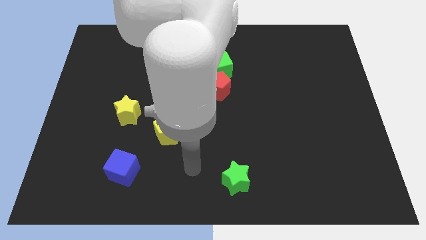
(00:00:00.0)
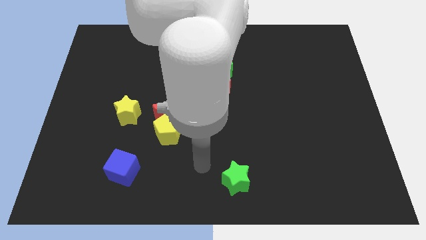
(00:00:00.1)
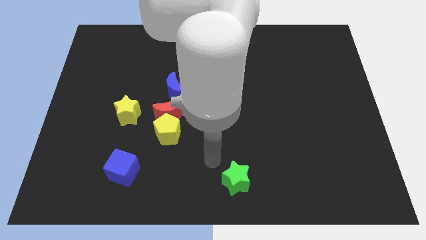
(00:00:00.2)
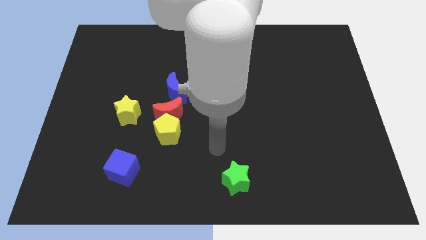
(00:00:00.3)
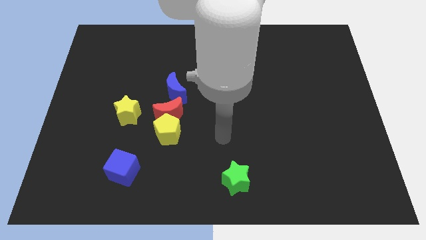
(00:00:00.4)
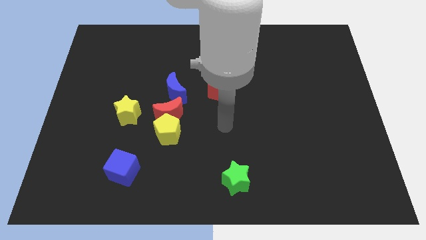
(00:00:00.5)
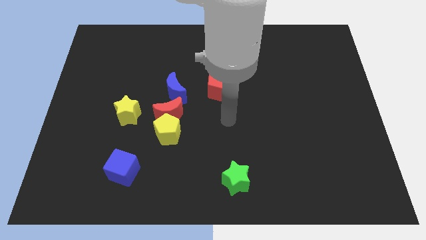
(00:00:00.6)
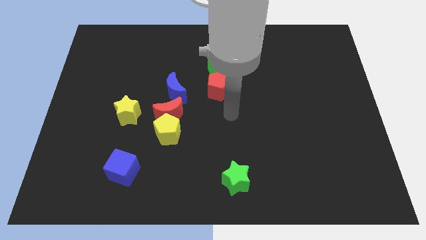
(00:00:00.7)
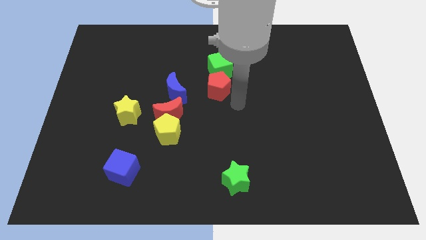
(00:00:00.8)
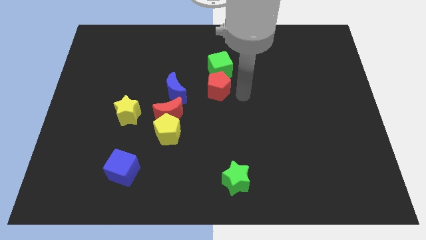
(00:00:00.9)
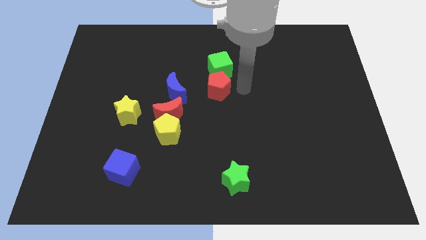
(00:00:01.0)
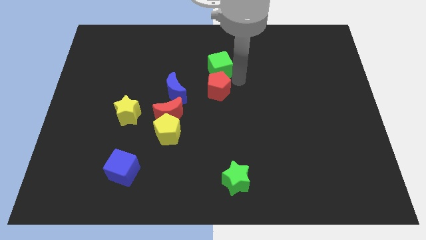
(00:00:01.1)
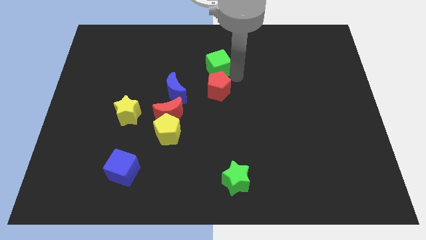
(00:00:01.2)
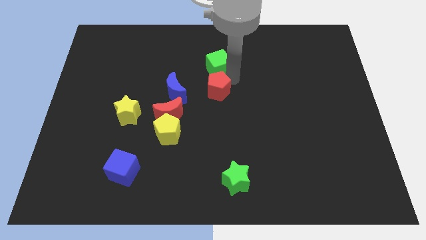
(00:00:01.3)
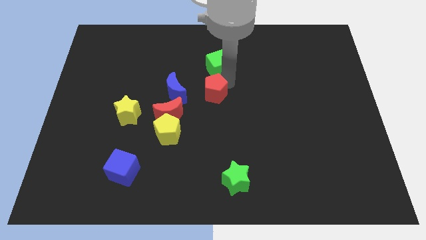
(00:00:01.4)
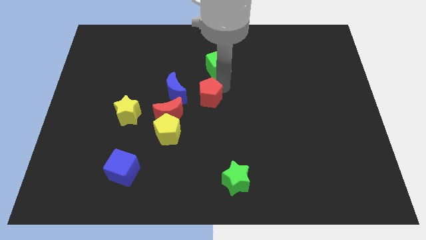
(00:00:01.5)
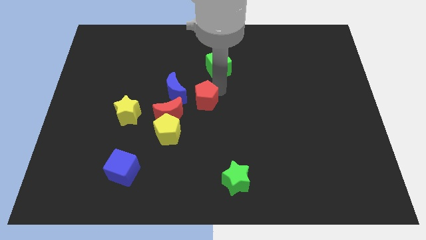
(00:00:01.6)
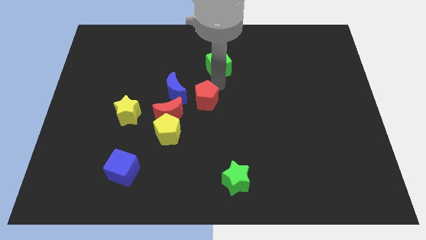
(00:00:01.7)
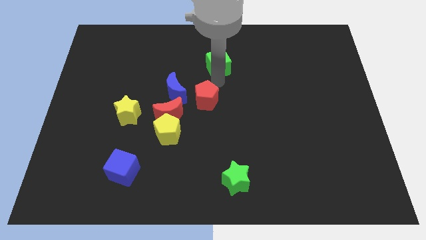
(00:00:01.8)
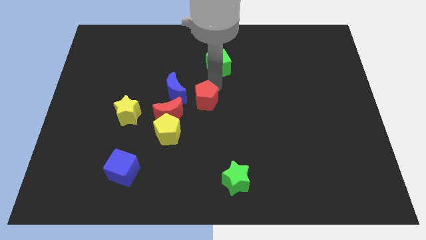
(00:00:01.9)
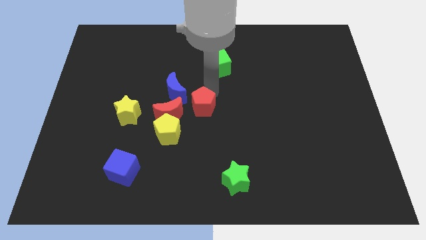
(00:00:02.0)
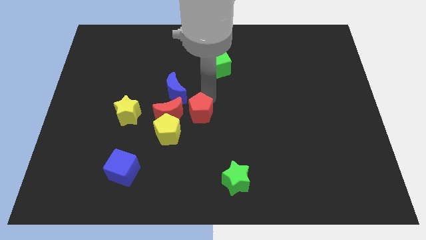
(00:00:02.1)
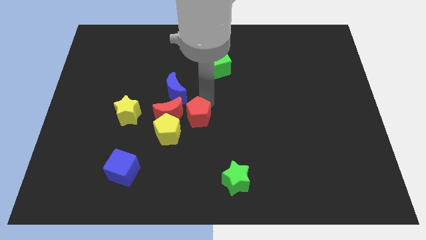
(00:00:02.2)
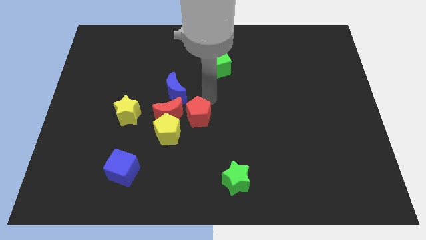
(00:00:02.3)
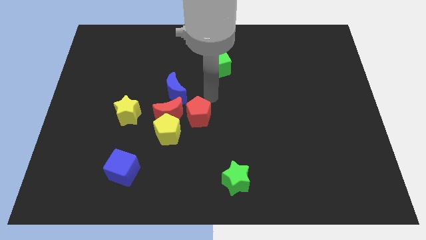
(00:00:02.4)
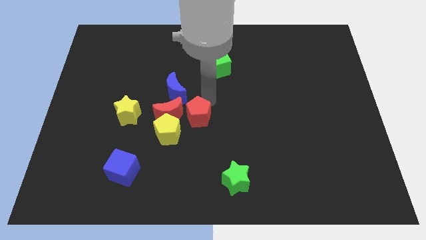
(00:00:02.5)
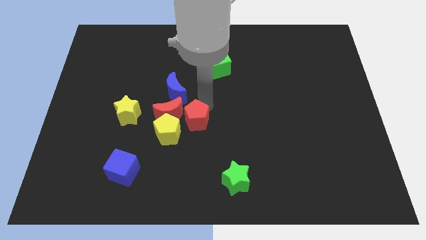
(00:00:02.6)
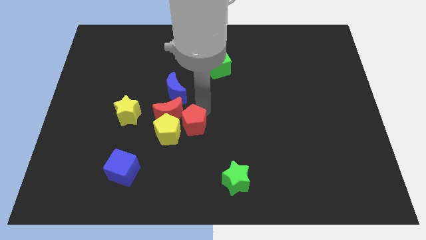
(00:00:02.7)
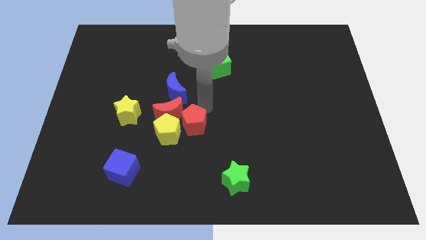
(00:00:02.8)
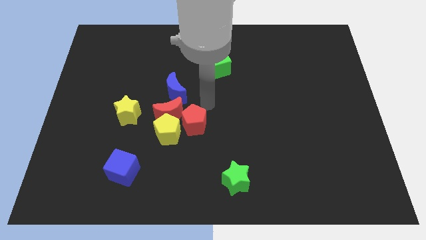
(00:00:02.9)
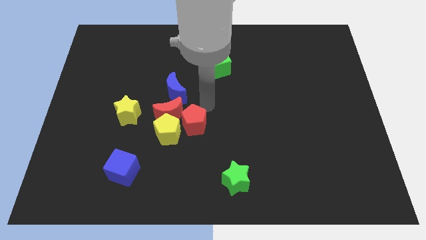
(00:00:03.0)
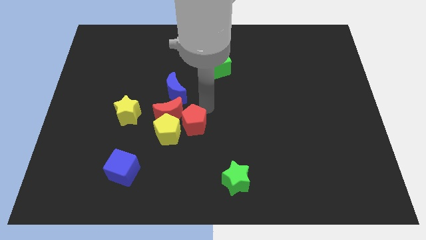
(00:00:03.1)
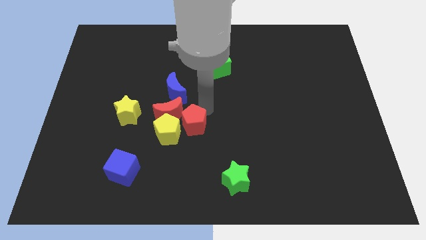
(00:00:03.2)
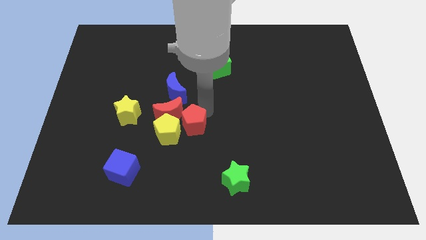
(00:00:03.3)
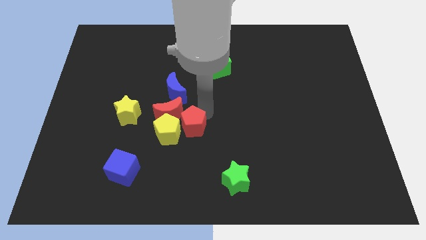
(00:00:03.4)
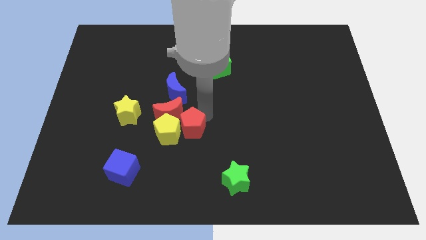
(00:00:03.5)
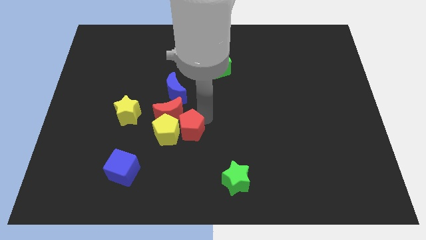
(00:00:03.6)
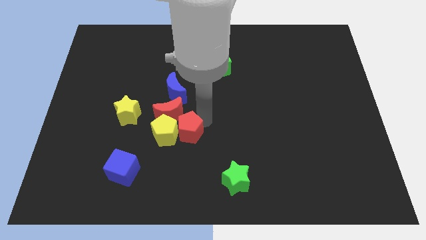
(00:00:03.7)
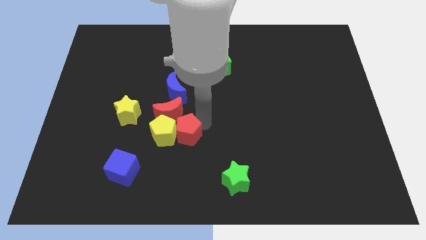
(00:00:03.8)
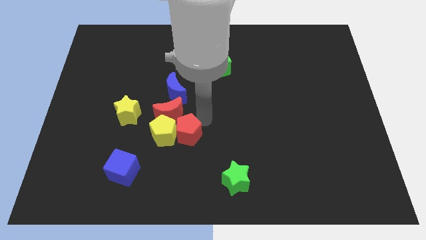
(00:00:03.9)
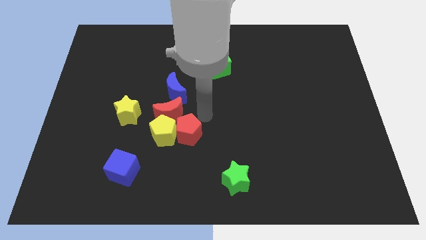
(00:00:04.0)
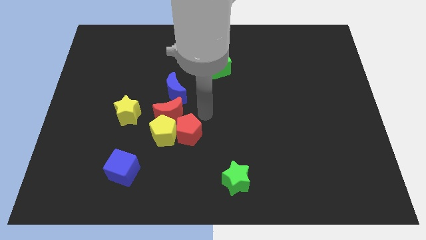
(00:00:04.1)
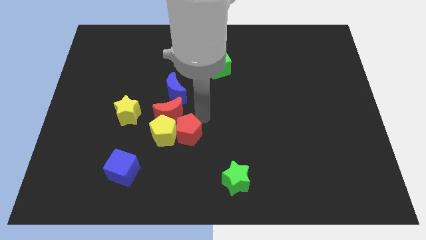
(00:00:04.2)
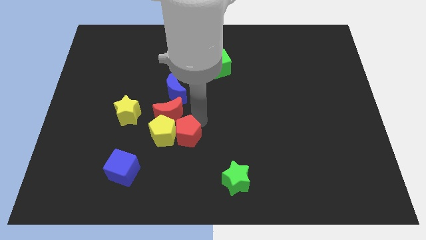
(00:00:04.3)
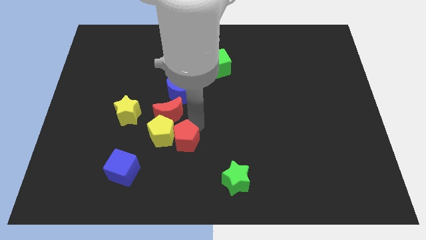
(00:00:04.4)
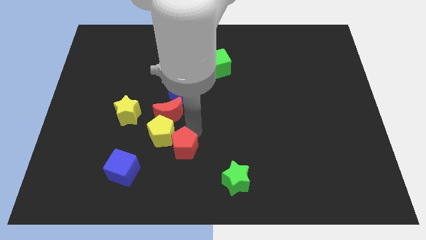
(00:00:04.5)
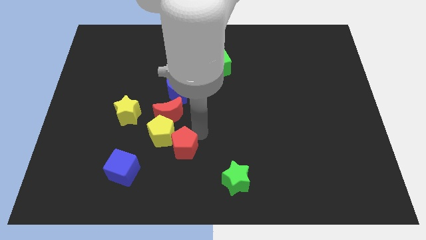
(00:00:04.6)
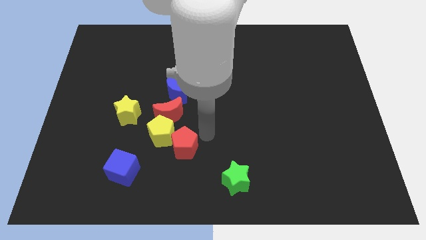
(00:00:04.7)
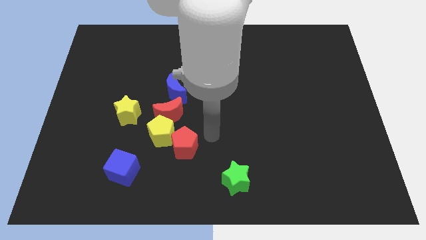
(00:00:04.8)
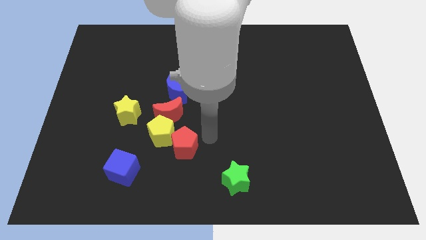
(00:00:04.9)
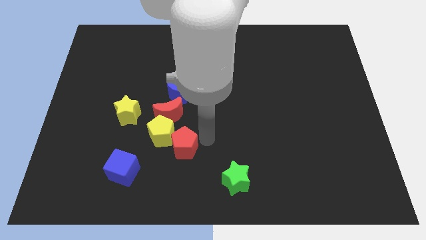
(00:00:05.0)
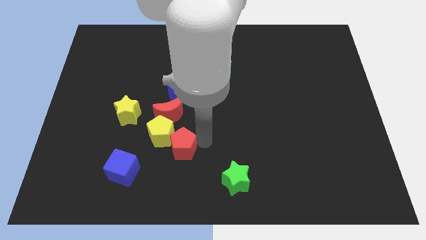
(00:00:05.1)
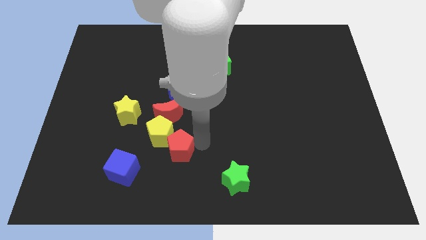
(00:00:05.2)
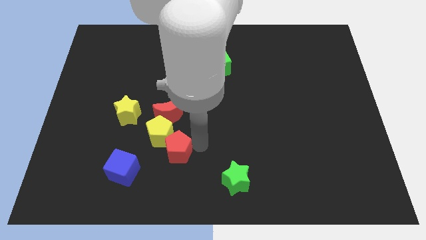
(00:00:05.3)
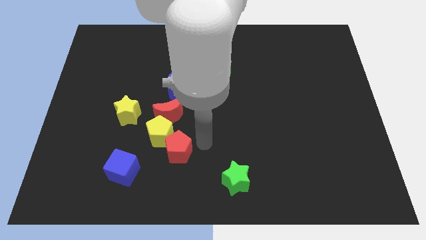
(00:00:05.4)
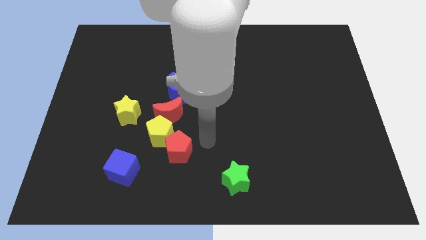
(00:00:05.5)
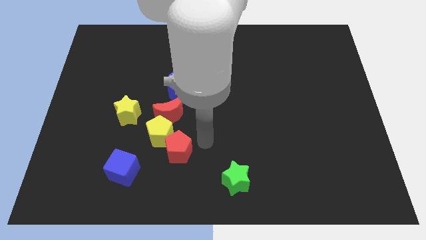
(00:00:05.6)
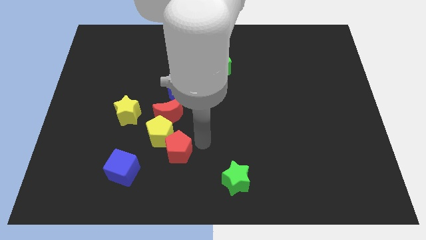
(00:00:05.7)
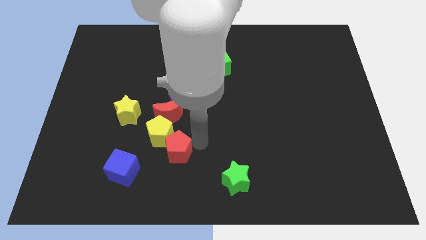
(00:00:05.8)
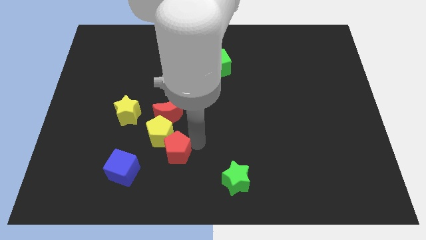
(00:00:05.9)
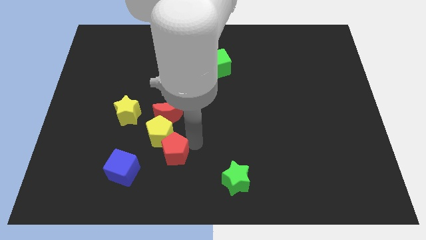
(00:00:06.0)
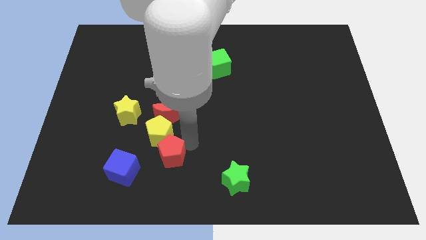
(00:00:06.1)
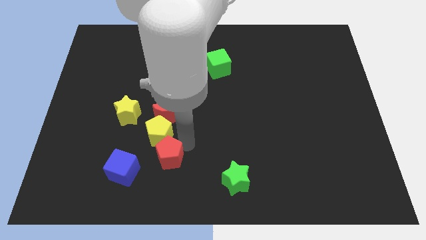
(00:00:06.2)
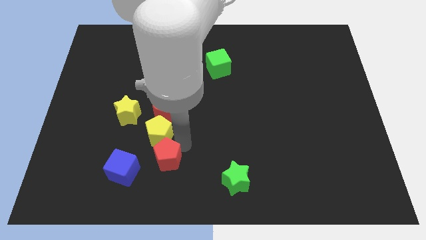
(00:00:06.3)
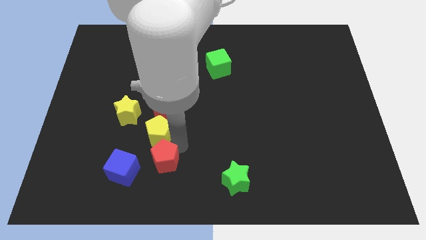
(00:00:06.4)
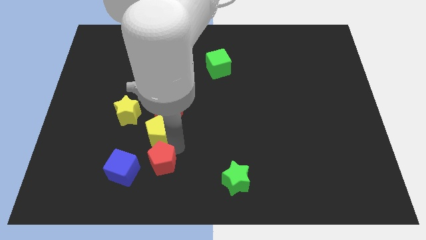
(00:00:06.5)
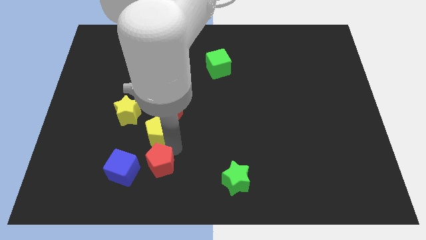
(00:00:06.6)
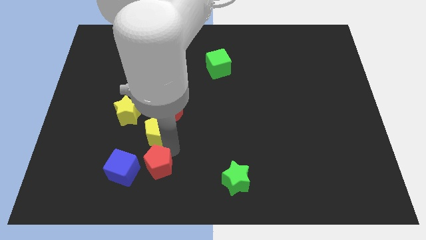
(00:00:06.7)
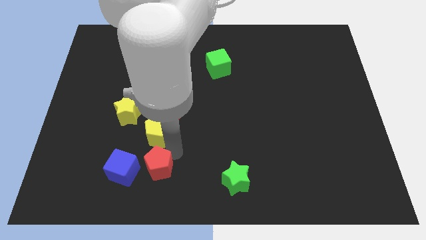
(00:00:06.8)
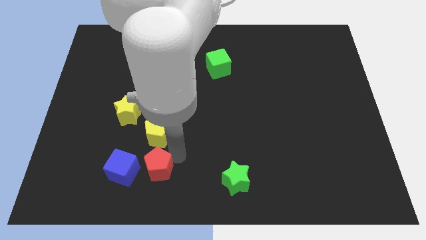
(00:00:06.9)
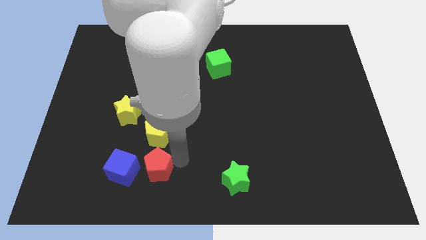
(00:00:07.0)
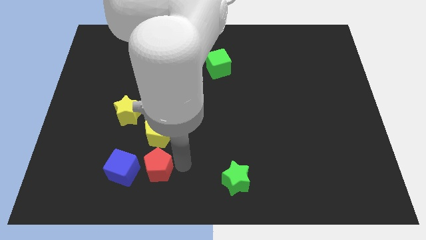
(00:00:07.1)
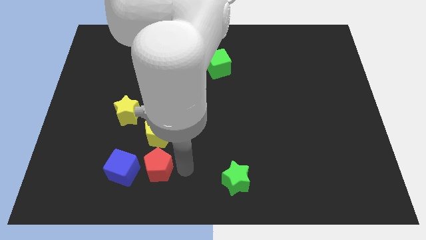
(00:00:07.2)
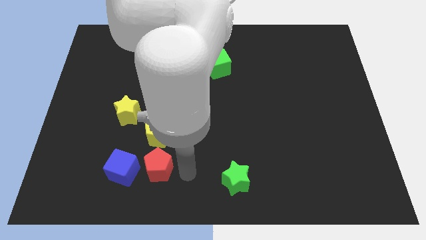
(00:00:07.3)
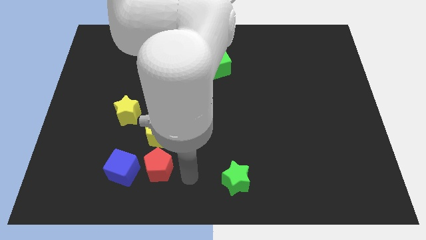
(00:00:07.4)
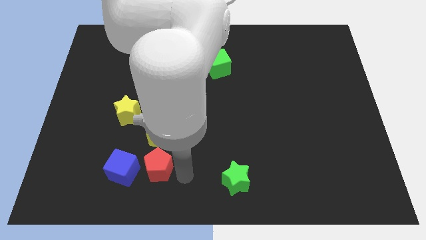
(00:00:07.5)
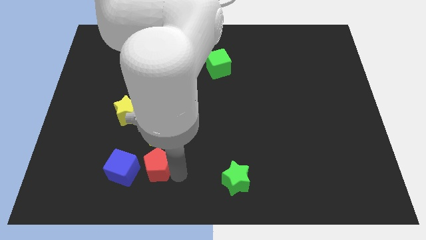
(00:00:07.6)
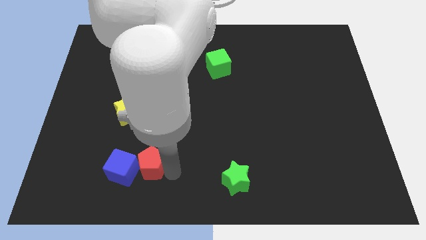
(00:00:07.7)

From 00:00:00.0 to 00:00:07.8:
put the red pentagon next to the blue cube

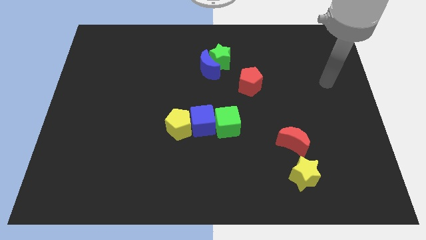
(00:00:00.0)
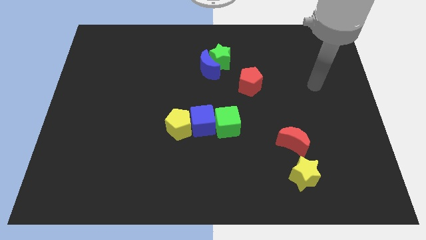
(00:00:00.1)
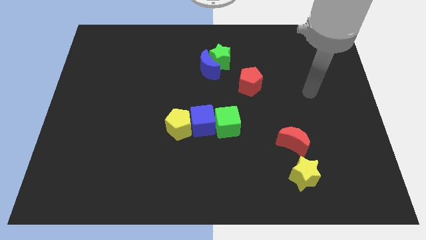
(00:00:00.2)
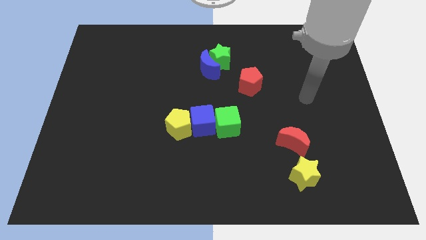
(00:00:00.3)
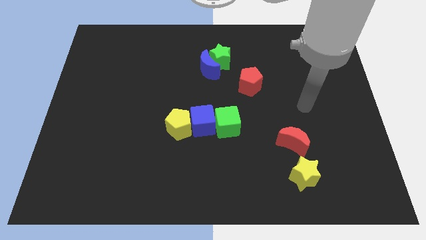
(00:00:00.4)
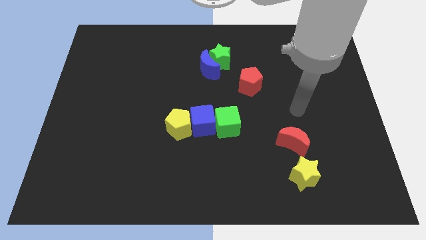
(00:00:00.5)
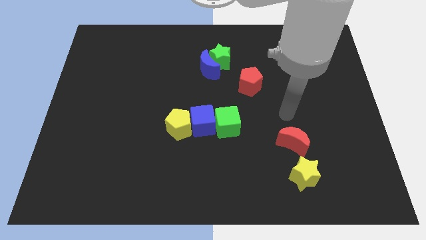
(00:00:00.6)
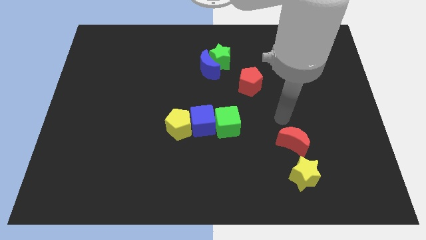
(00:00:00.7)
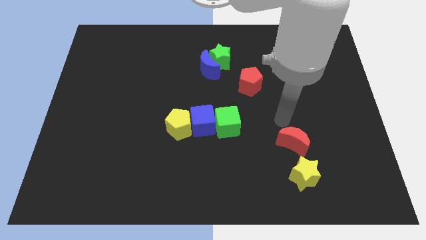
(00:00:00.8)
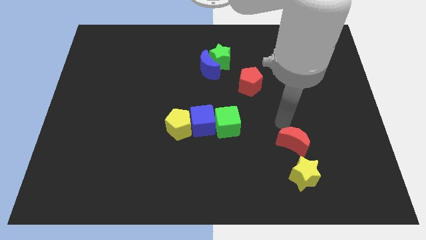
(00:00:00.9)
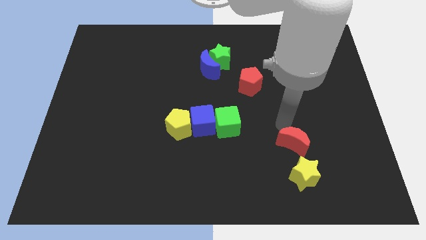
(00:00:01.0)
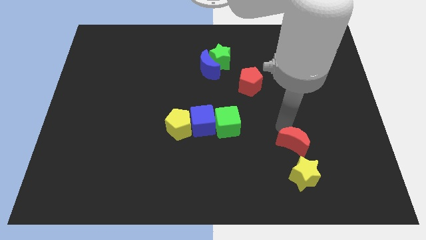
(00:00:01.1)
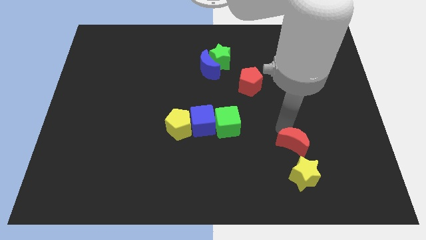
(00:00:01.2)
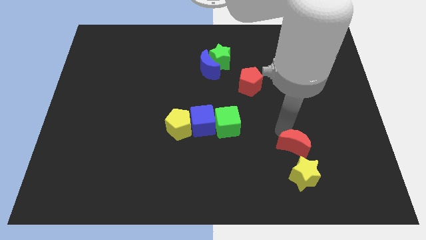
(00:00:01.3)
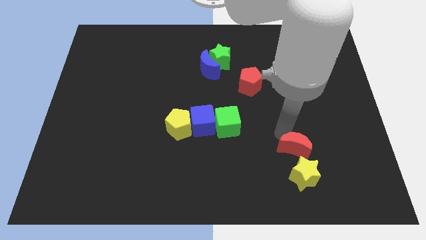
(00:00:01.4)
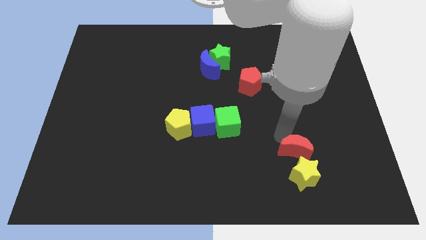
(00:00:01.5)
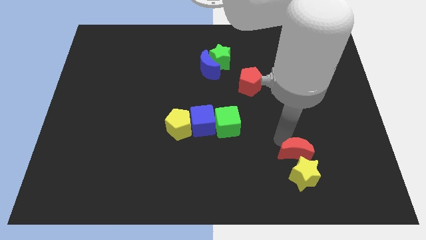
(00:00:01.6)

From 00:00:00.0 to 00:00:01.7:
put the red moon to the yellow star
